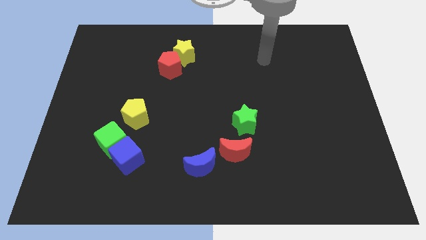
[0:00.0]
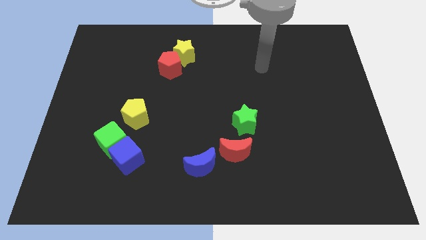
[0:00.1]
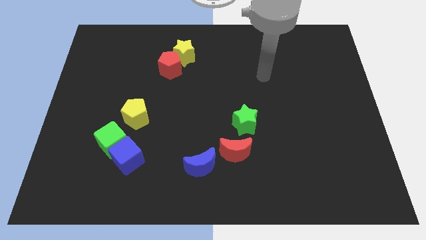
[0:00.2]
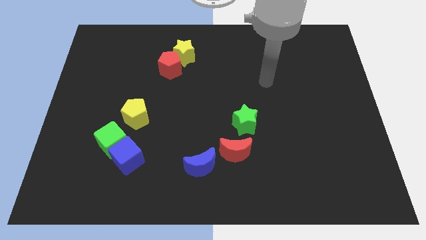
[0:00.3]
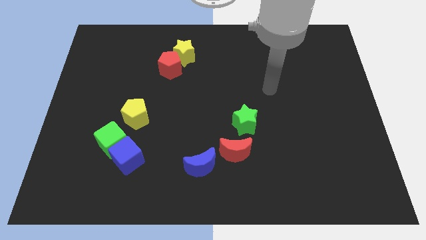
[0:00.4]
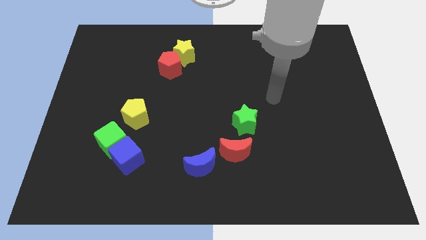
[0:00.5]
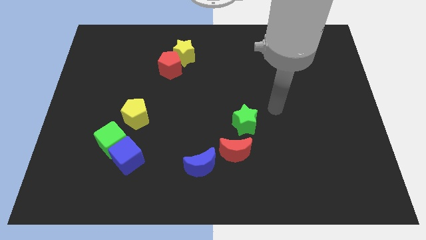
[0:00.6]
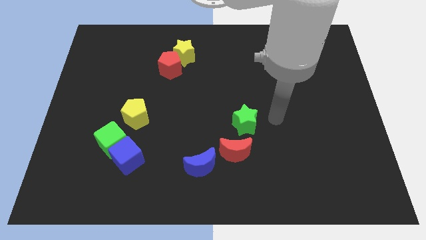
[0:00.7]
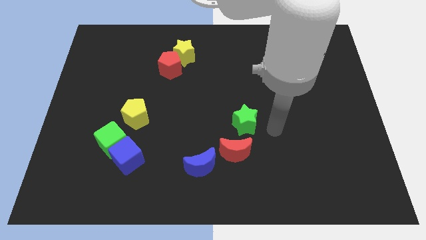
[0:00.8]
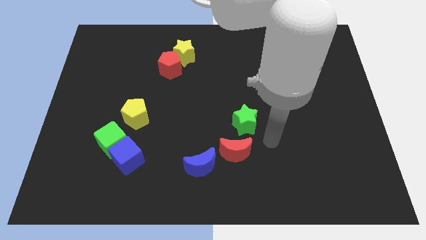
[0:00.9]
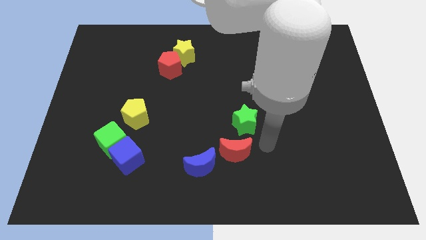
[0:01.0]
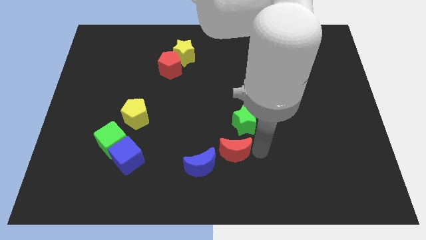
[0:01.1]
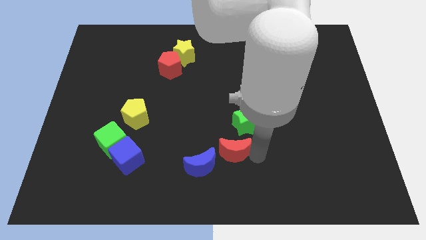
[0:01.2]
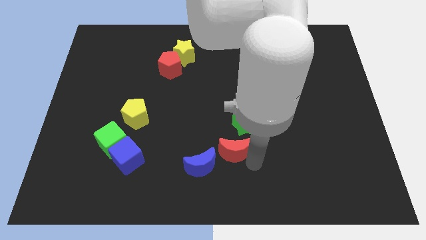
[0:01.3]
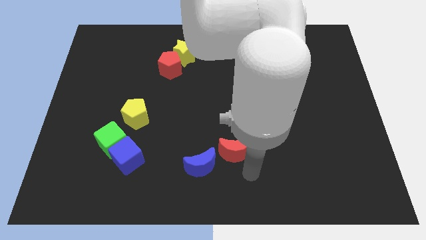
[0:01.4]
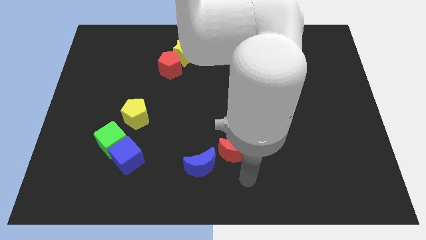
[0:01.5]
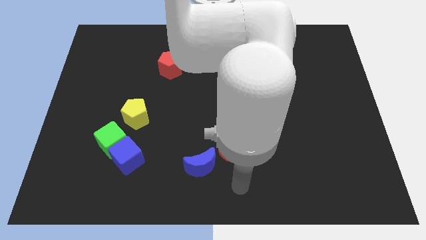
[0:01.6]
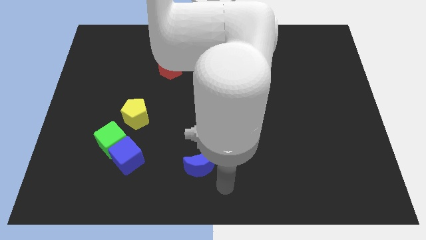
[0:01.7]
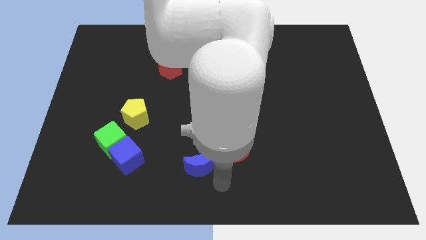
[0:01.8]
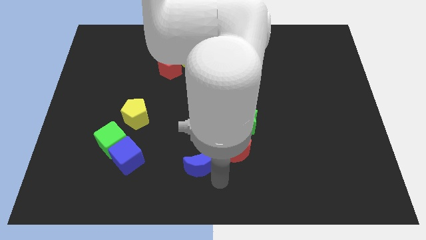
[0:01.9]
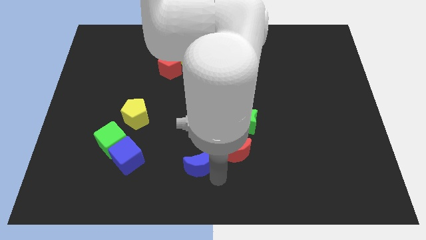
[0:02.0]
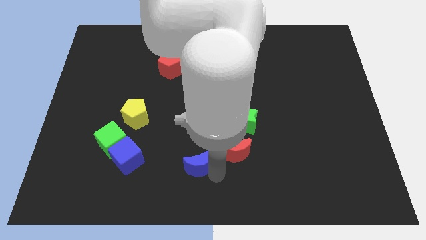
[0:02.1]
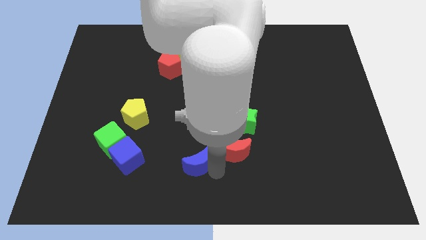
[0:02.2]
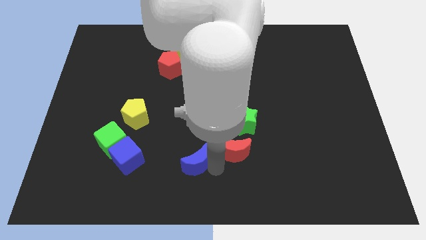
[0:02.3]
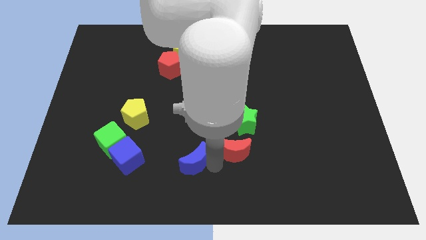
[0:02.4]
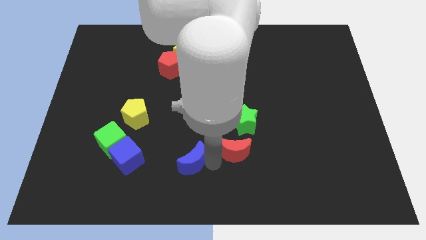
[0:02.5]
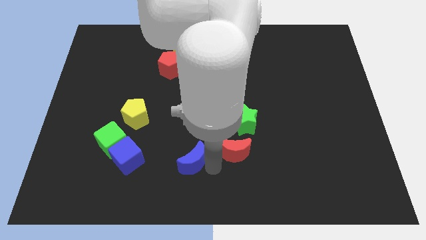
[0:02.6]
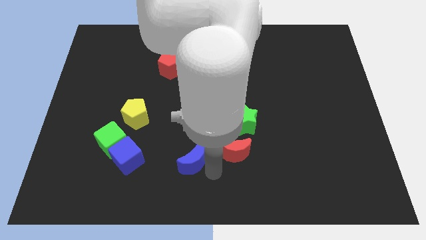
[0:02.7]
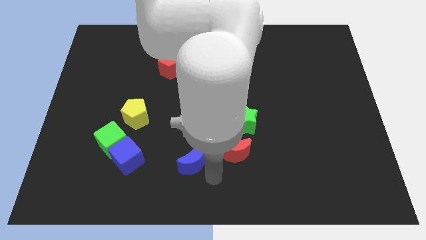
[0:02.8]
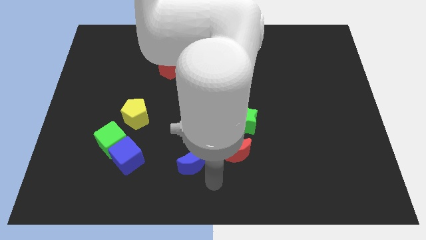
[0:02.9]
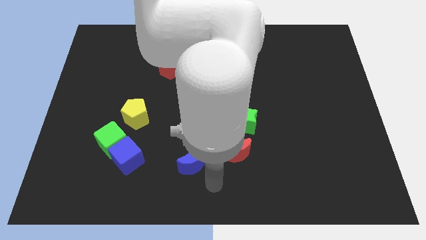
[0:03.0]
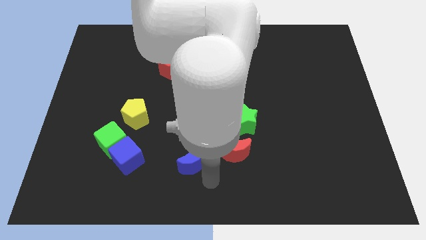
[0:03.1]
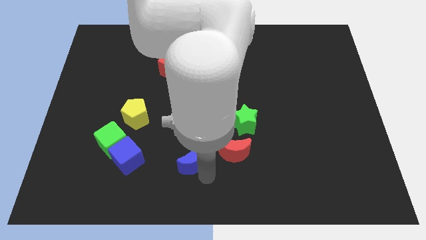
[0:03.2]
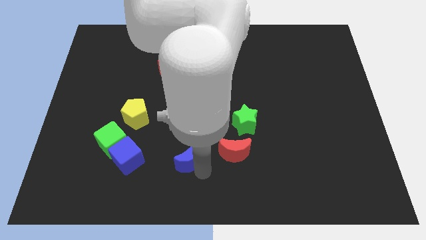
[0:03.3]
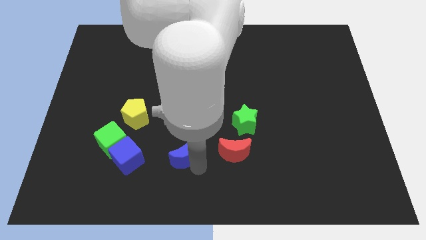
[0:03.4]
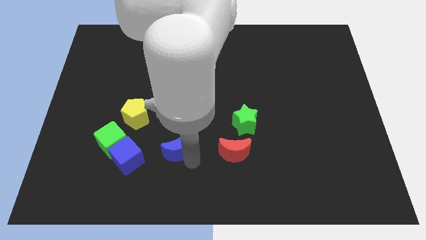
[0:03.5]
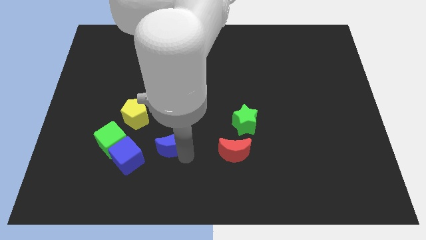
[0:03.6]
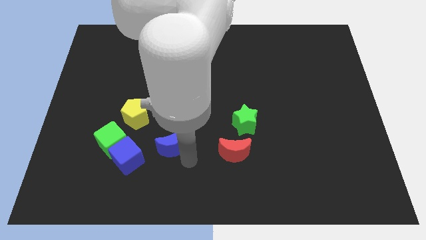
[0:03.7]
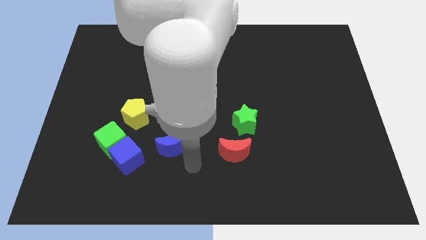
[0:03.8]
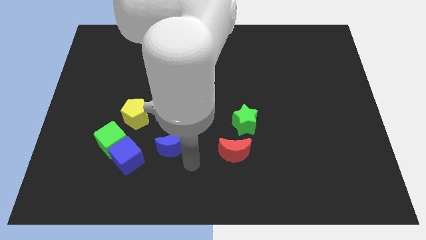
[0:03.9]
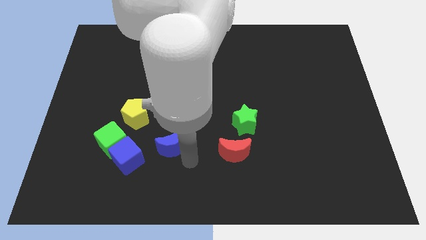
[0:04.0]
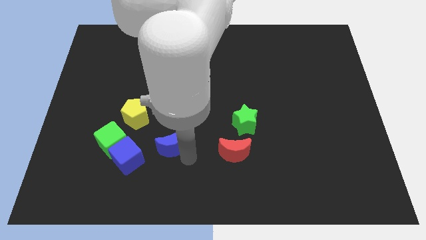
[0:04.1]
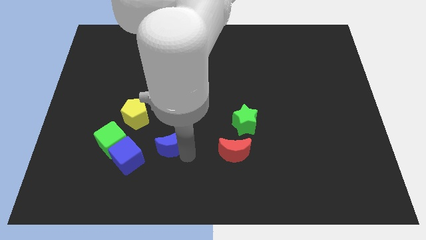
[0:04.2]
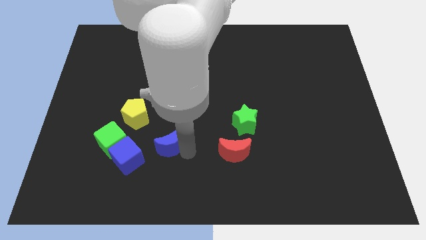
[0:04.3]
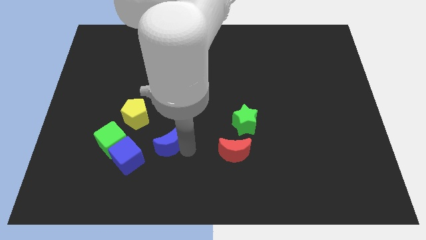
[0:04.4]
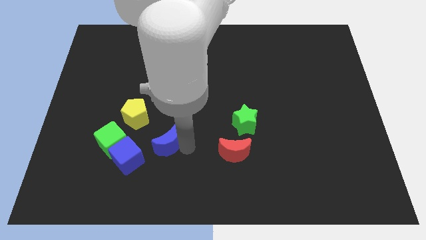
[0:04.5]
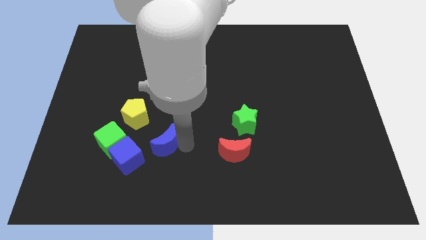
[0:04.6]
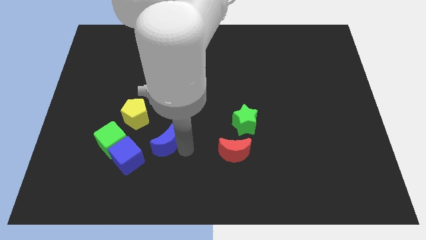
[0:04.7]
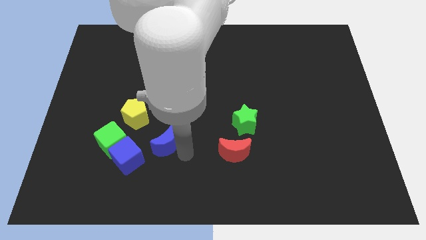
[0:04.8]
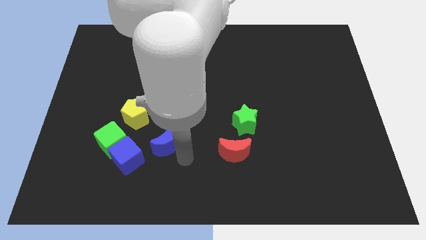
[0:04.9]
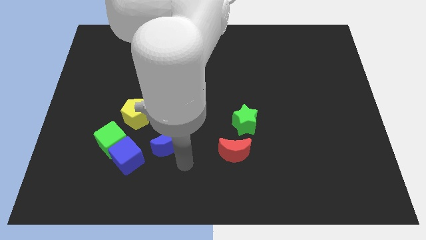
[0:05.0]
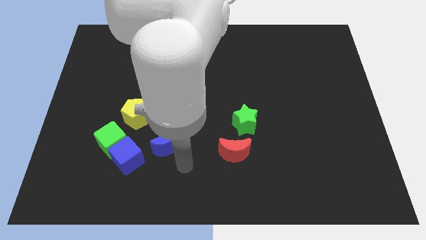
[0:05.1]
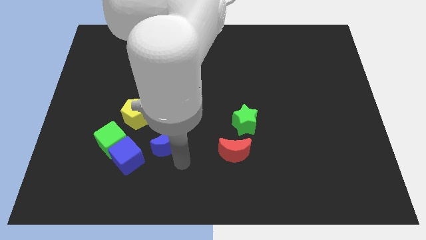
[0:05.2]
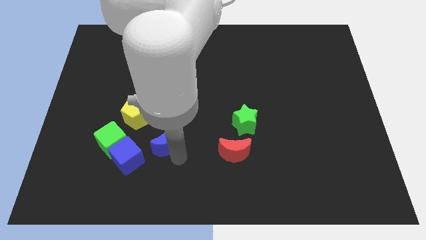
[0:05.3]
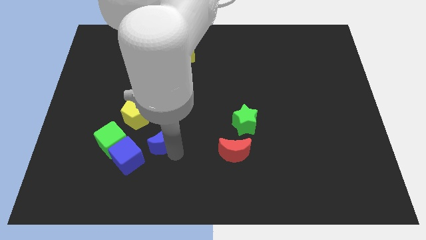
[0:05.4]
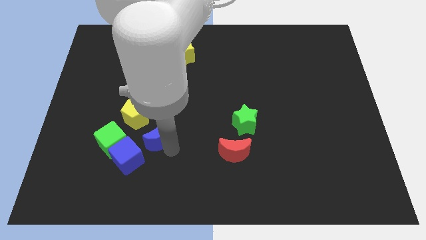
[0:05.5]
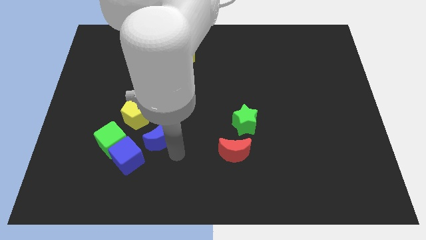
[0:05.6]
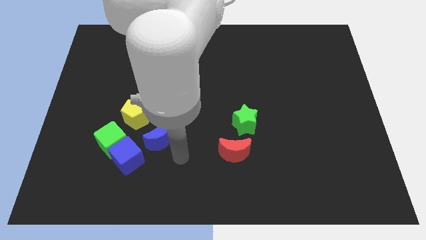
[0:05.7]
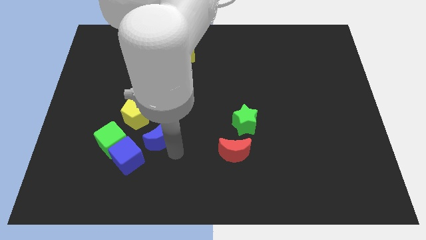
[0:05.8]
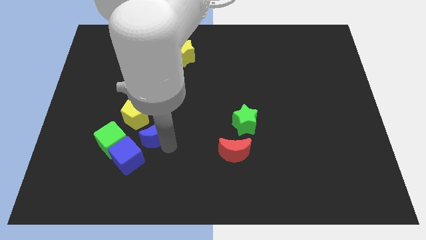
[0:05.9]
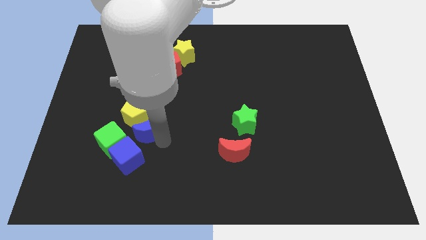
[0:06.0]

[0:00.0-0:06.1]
put the blue moon next to the yellow pentagon
